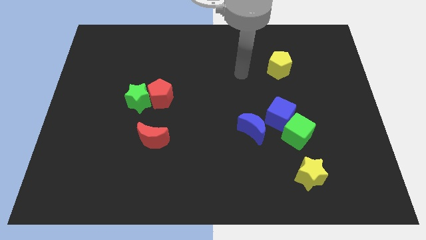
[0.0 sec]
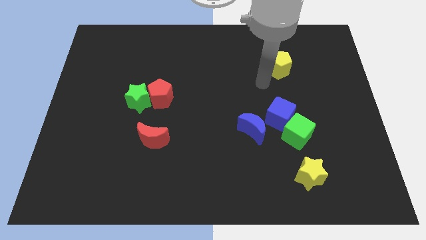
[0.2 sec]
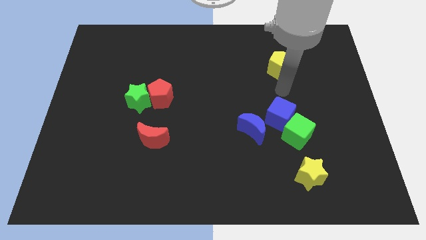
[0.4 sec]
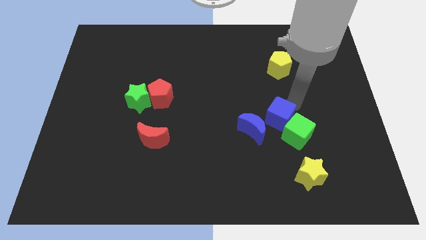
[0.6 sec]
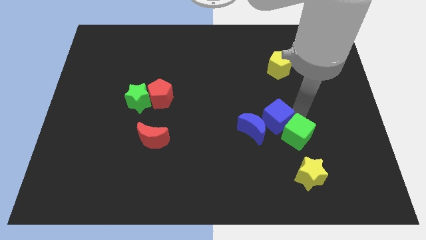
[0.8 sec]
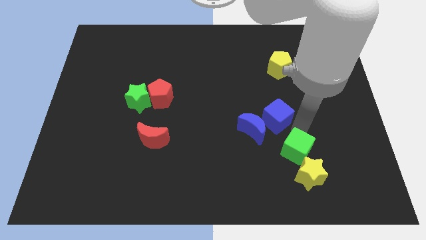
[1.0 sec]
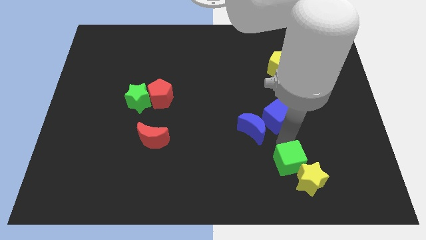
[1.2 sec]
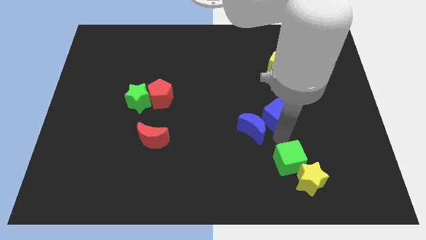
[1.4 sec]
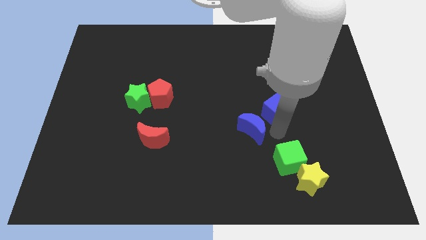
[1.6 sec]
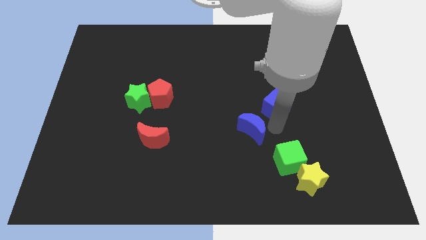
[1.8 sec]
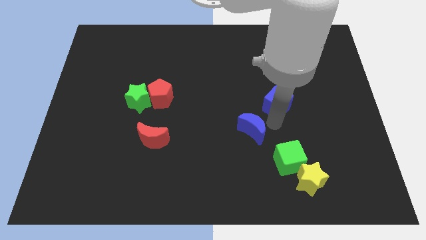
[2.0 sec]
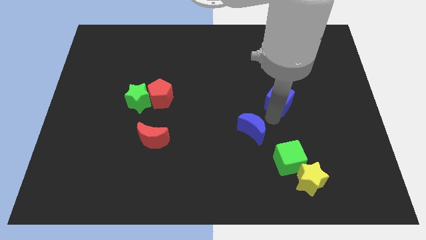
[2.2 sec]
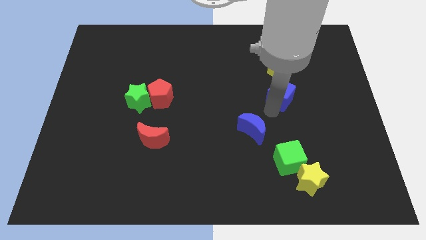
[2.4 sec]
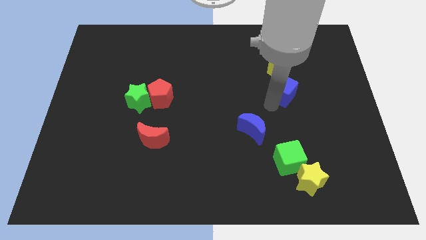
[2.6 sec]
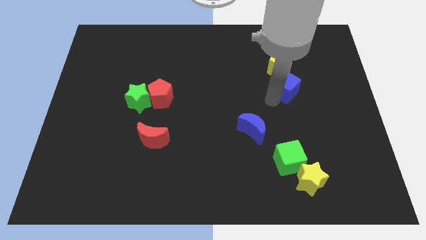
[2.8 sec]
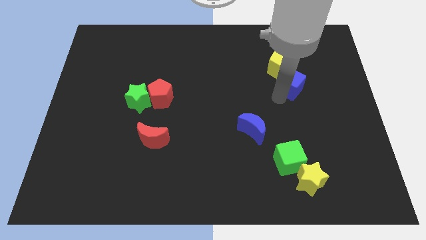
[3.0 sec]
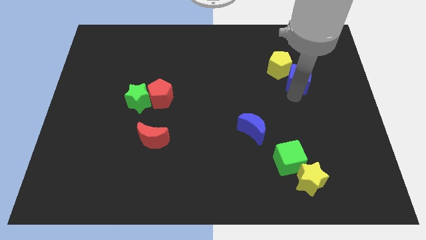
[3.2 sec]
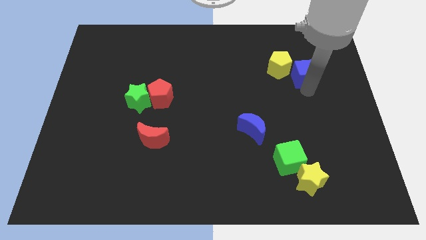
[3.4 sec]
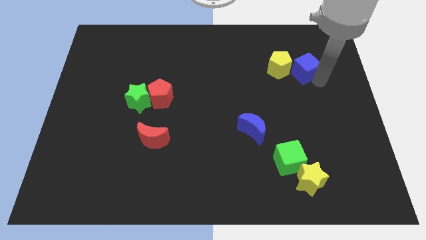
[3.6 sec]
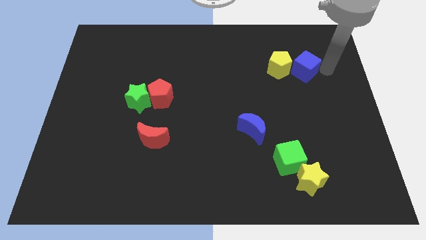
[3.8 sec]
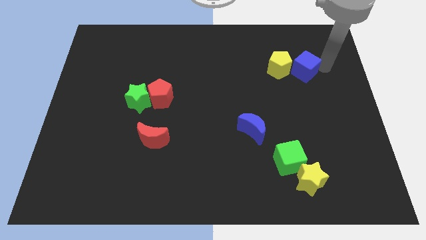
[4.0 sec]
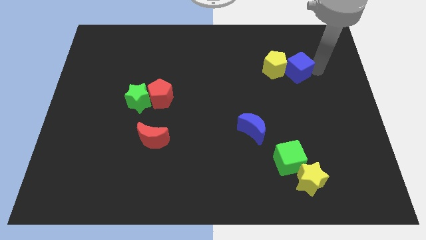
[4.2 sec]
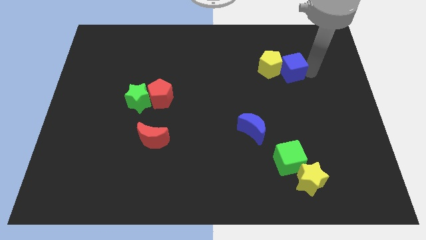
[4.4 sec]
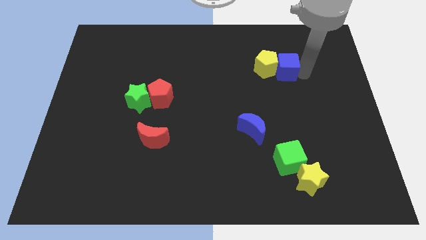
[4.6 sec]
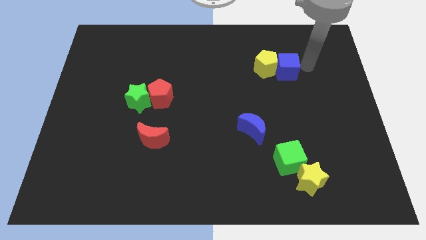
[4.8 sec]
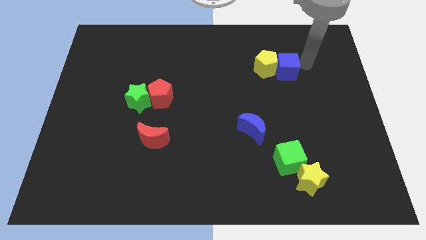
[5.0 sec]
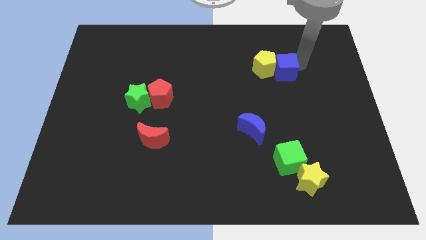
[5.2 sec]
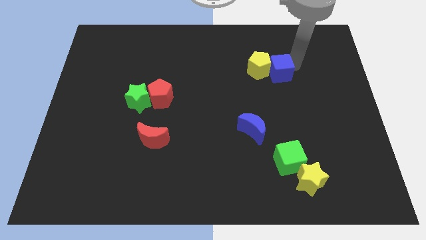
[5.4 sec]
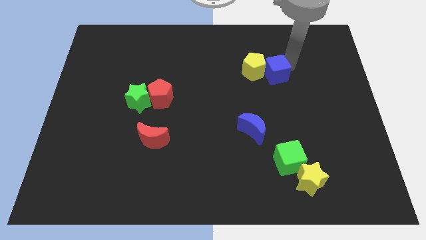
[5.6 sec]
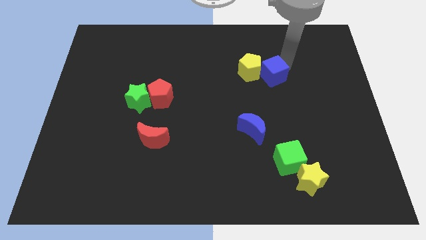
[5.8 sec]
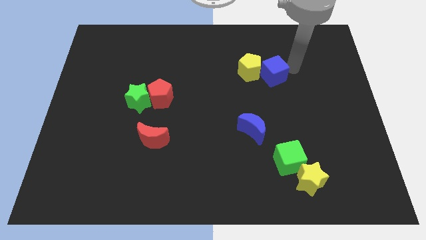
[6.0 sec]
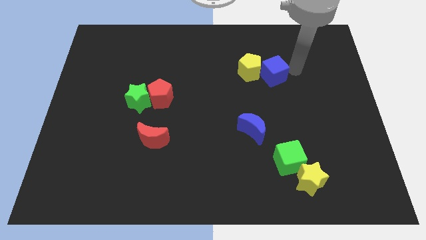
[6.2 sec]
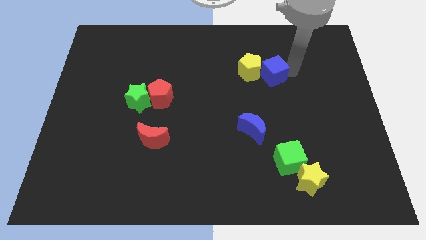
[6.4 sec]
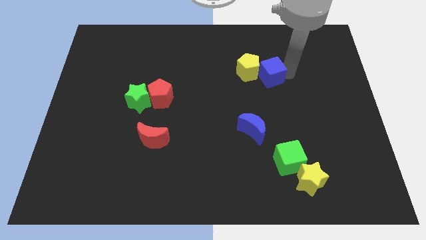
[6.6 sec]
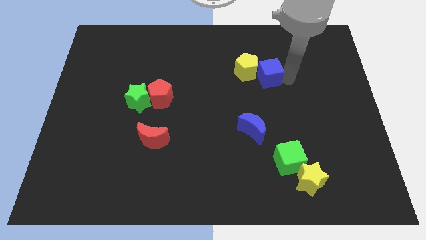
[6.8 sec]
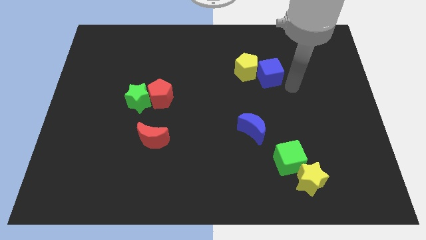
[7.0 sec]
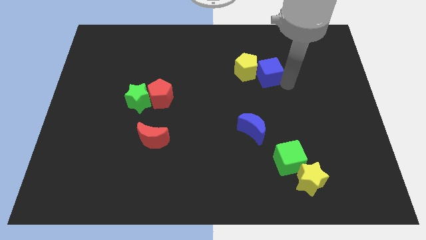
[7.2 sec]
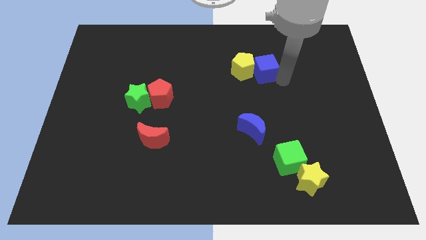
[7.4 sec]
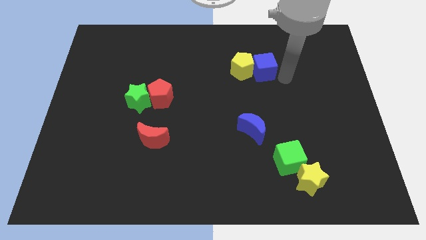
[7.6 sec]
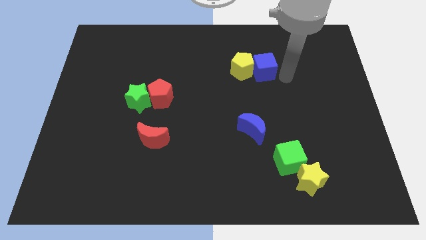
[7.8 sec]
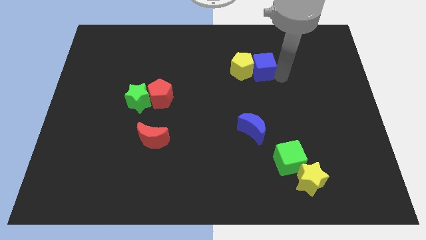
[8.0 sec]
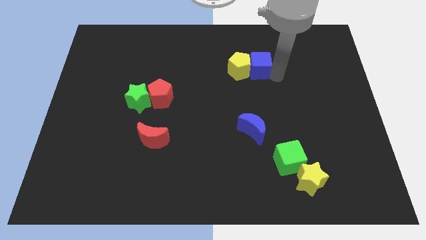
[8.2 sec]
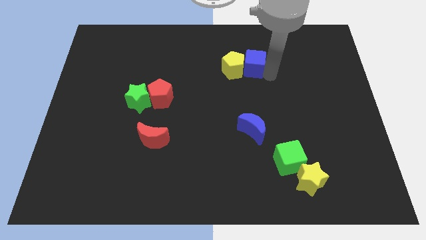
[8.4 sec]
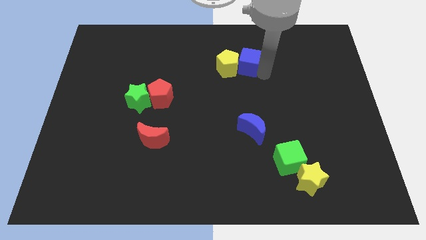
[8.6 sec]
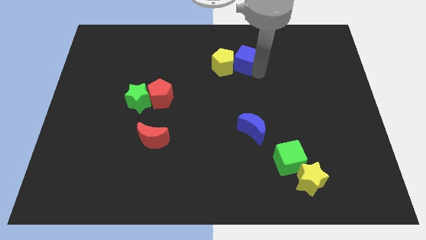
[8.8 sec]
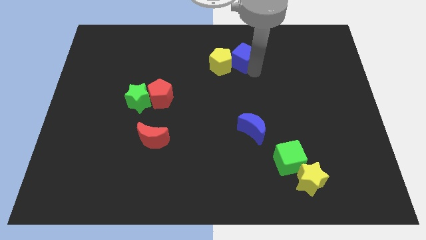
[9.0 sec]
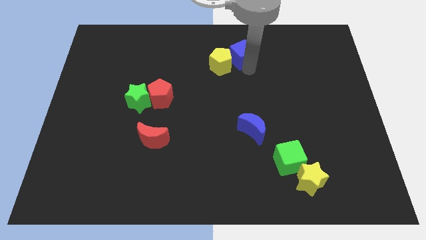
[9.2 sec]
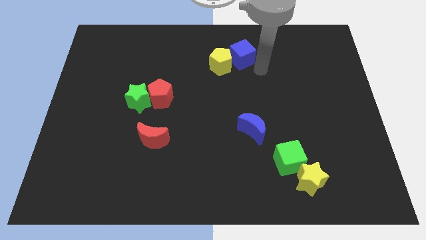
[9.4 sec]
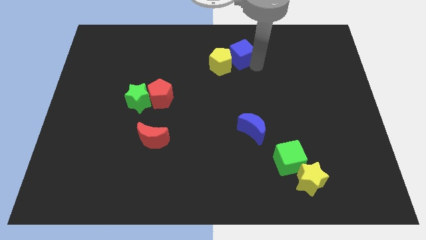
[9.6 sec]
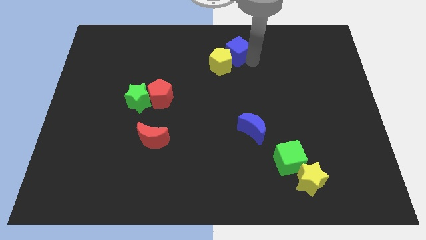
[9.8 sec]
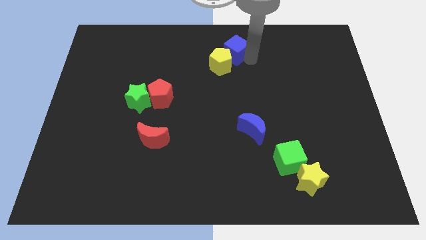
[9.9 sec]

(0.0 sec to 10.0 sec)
put the blue cube to the top
